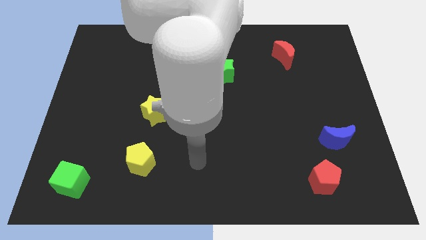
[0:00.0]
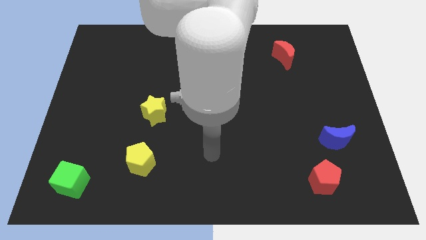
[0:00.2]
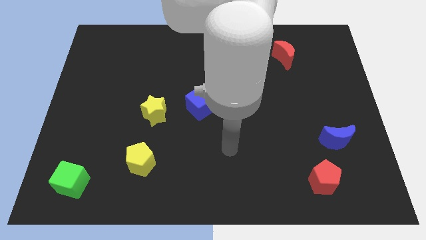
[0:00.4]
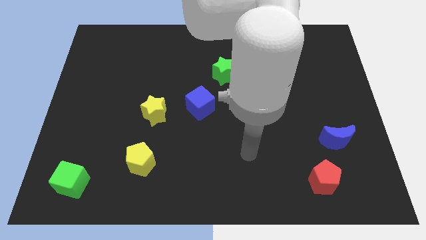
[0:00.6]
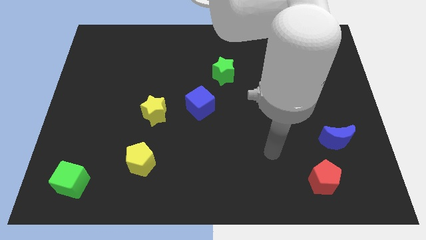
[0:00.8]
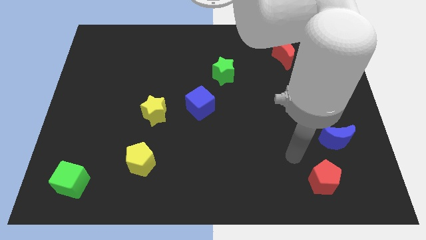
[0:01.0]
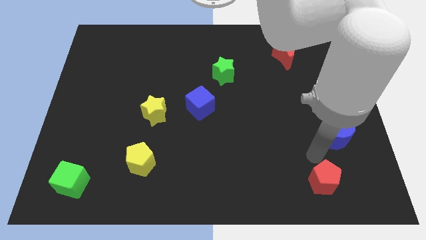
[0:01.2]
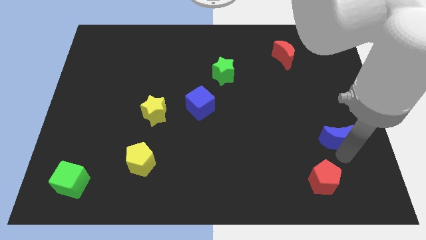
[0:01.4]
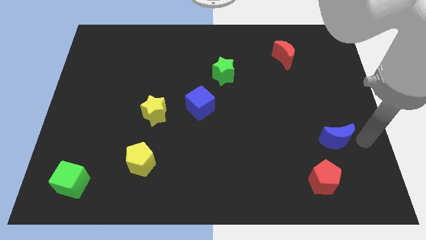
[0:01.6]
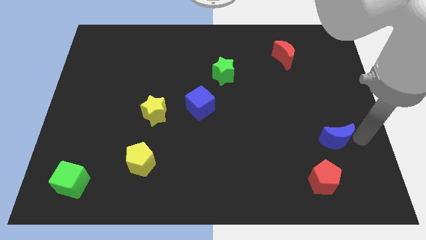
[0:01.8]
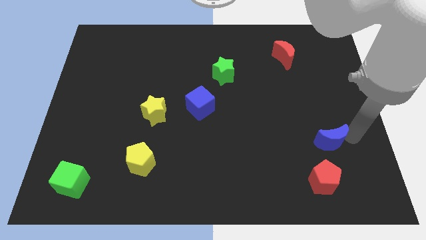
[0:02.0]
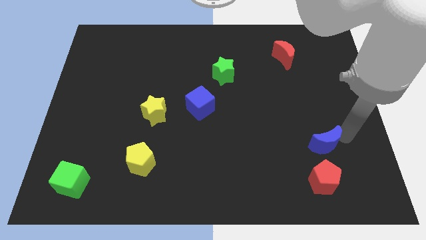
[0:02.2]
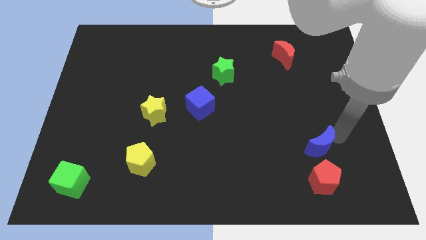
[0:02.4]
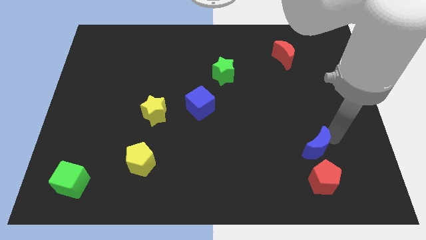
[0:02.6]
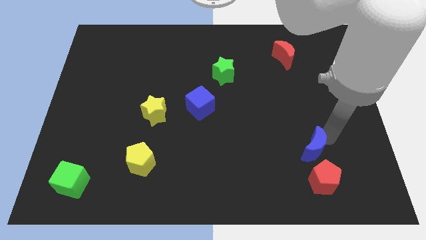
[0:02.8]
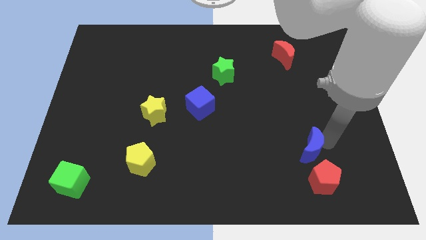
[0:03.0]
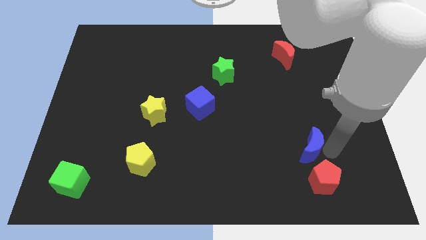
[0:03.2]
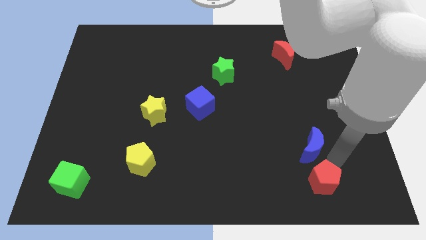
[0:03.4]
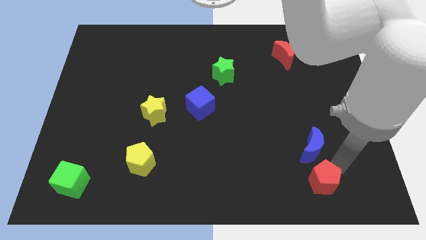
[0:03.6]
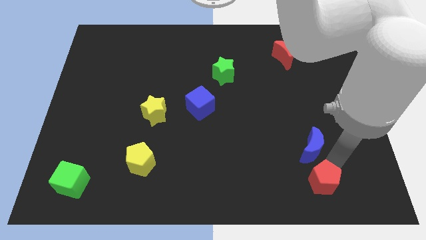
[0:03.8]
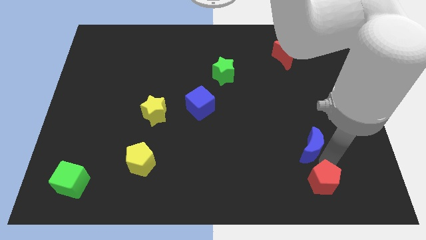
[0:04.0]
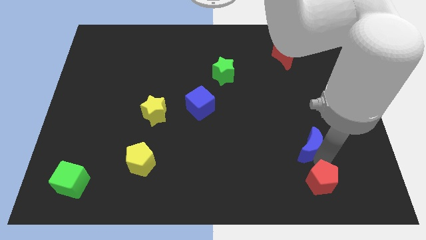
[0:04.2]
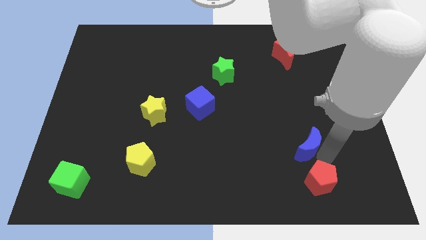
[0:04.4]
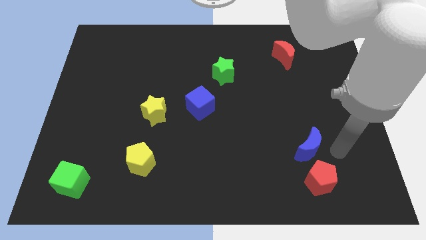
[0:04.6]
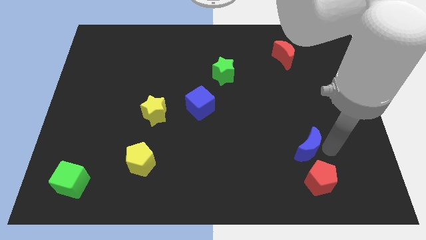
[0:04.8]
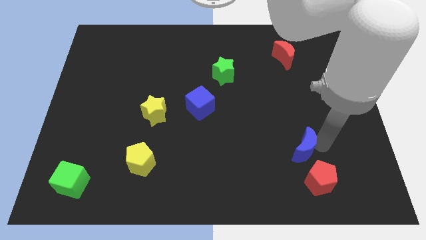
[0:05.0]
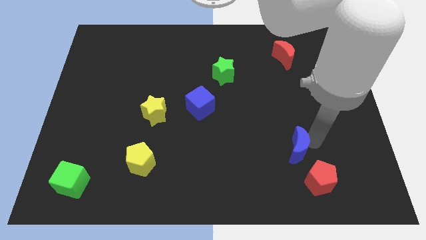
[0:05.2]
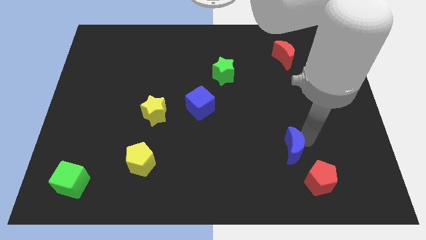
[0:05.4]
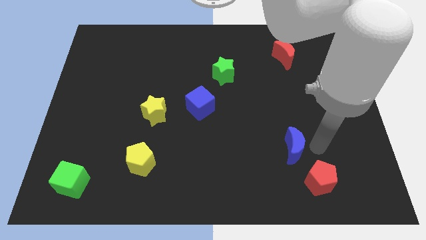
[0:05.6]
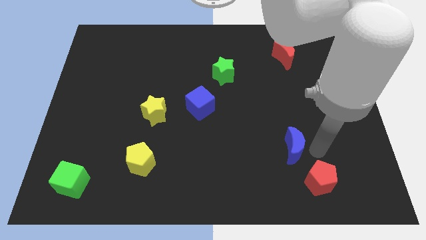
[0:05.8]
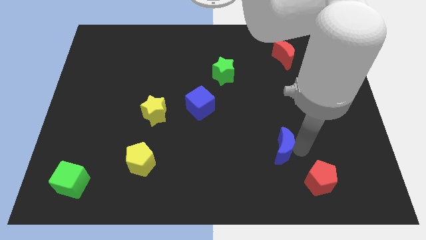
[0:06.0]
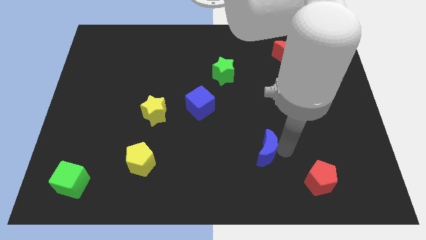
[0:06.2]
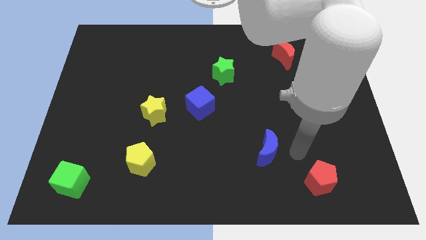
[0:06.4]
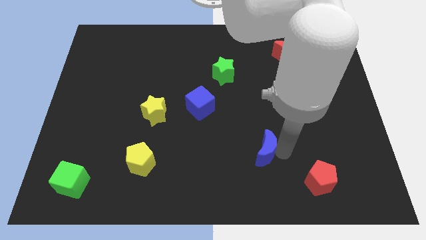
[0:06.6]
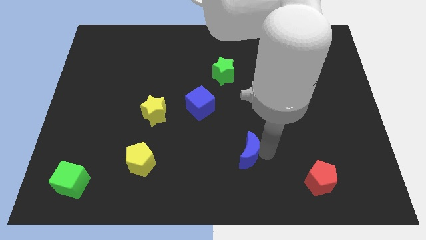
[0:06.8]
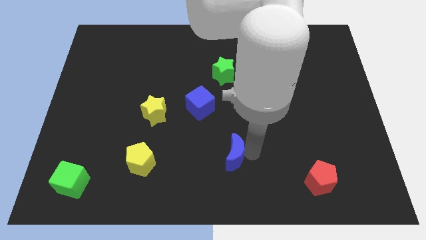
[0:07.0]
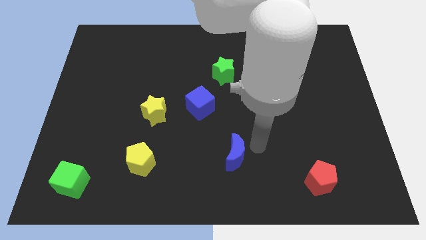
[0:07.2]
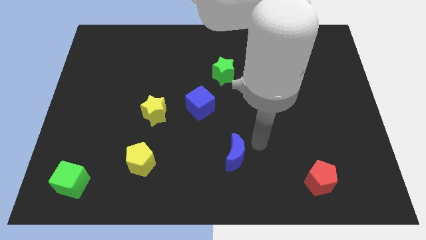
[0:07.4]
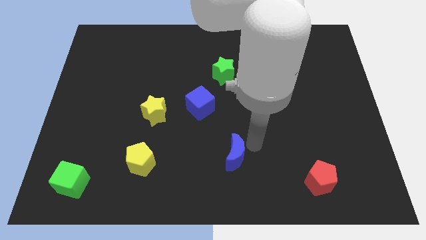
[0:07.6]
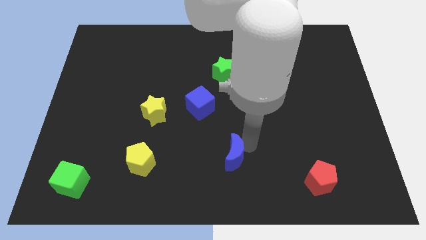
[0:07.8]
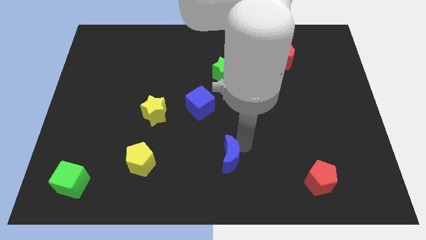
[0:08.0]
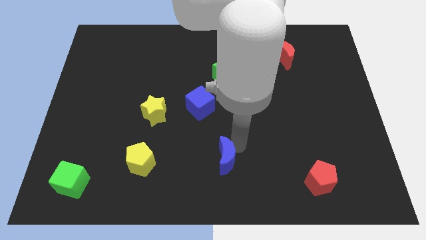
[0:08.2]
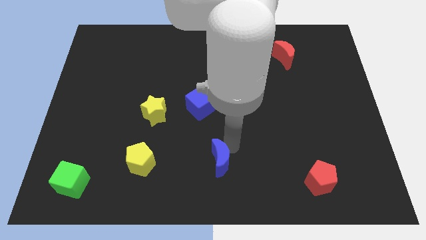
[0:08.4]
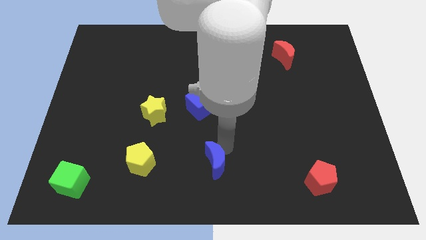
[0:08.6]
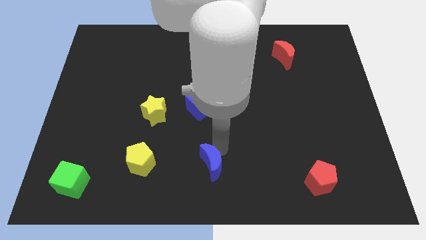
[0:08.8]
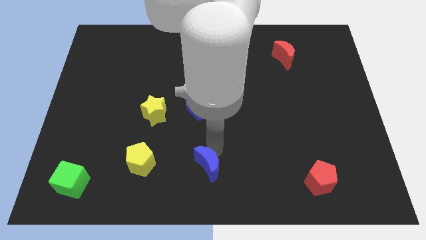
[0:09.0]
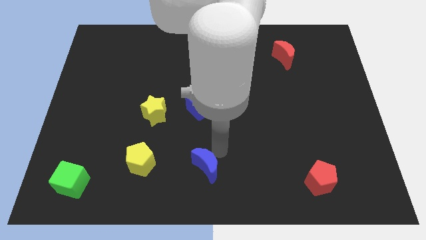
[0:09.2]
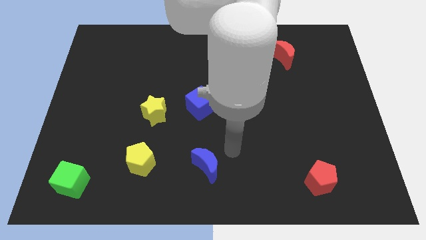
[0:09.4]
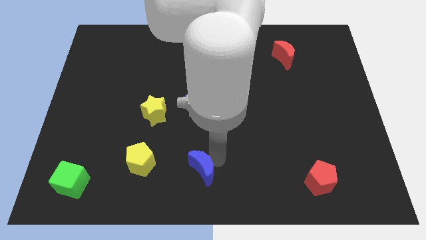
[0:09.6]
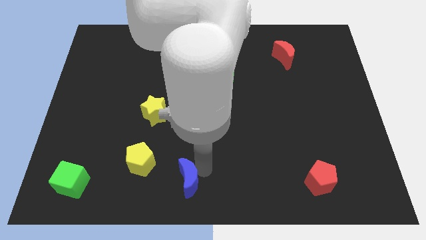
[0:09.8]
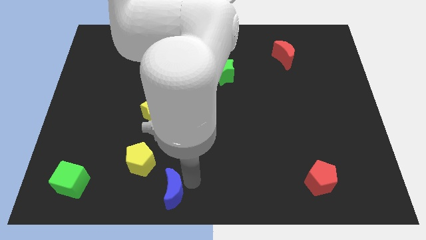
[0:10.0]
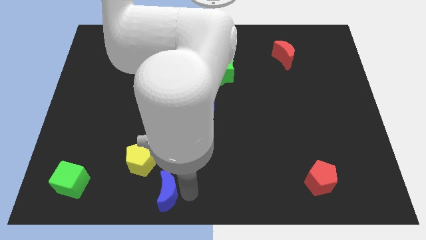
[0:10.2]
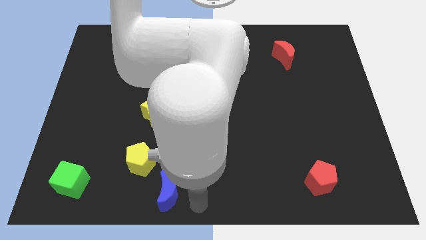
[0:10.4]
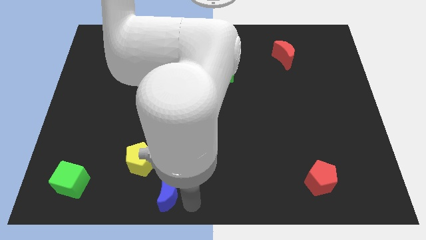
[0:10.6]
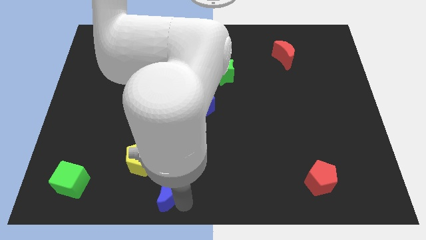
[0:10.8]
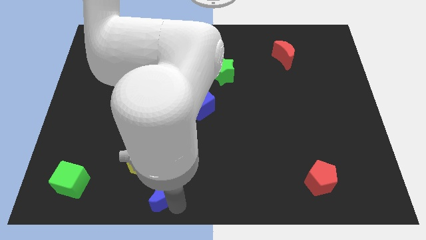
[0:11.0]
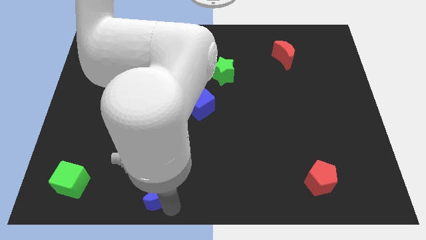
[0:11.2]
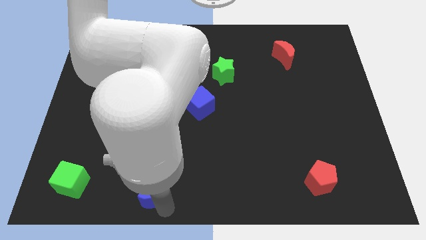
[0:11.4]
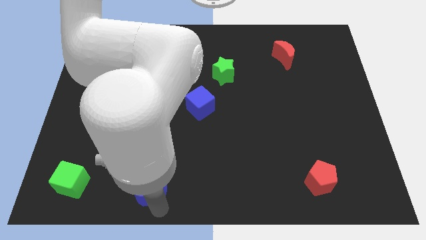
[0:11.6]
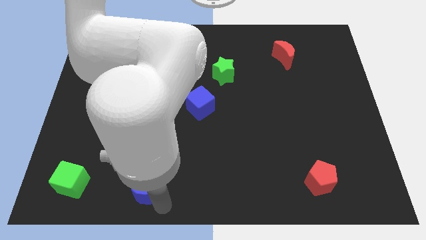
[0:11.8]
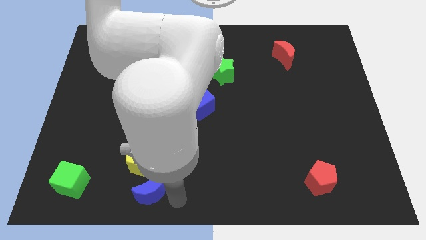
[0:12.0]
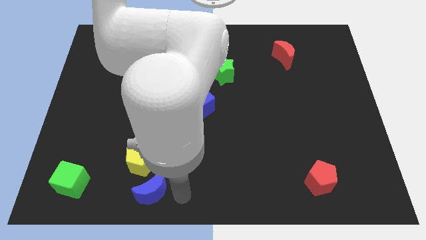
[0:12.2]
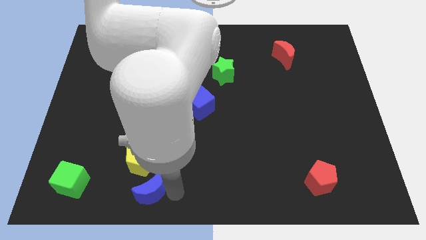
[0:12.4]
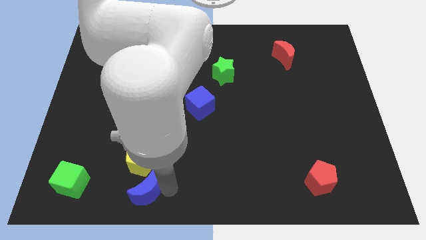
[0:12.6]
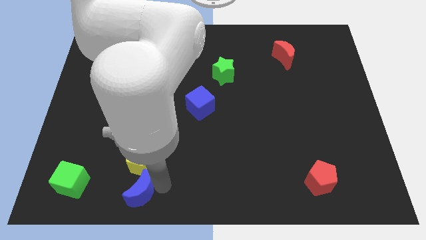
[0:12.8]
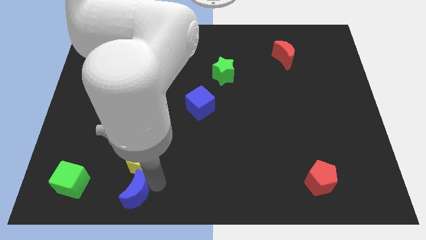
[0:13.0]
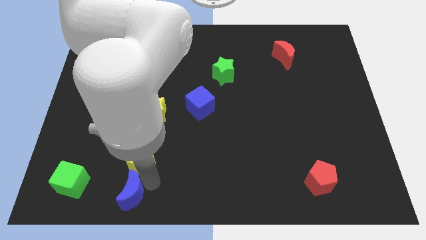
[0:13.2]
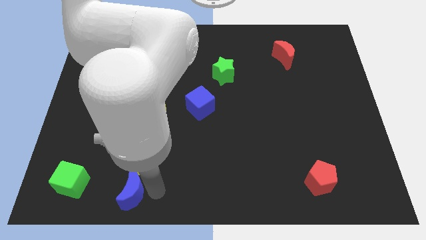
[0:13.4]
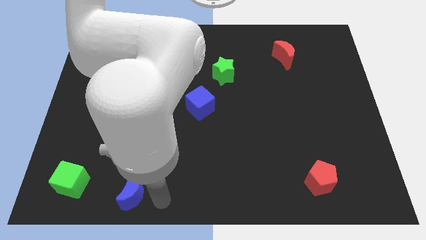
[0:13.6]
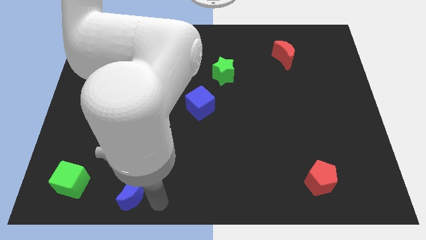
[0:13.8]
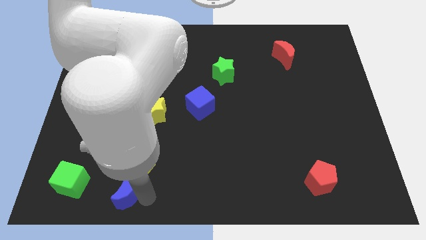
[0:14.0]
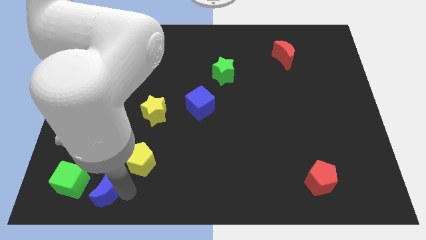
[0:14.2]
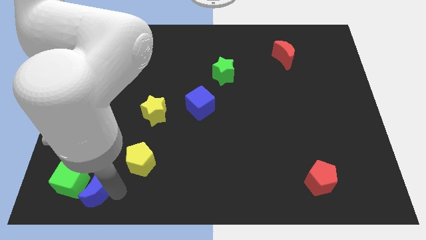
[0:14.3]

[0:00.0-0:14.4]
slide the blue moon close to the green cube
